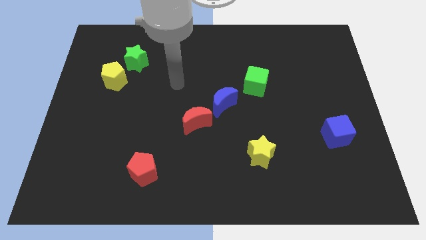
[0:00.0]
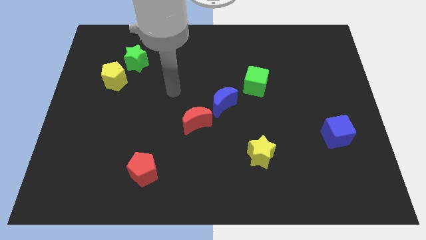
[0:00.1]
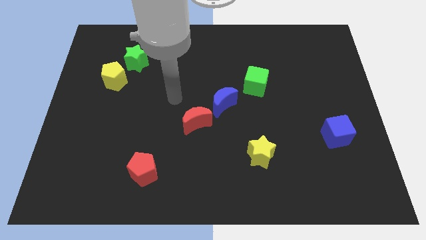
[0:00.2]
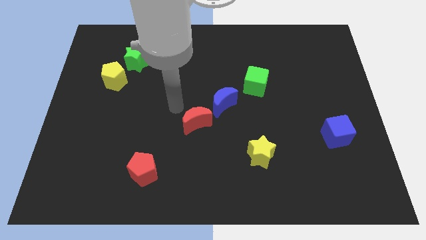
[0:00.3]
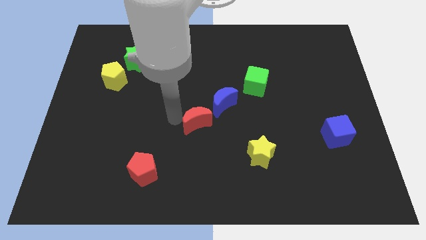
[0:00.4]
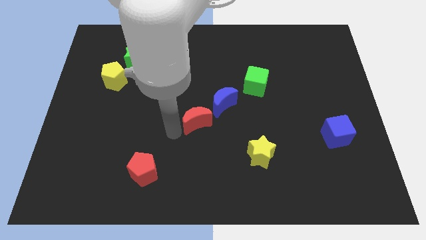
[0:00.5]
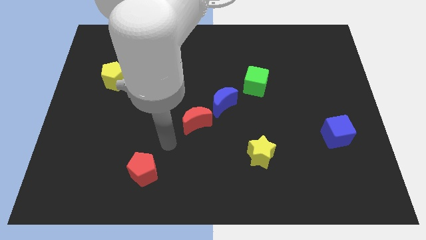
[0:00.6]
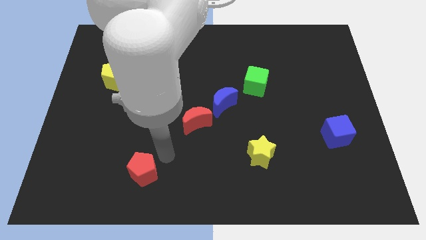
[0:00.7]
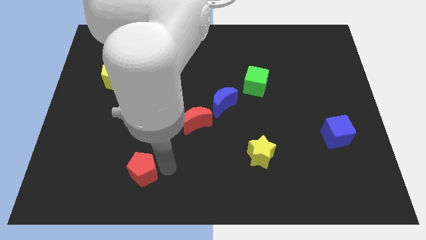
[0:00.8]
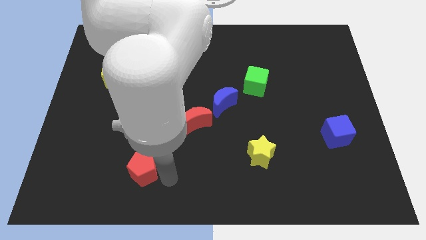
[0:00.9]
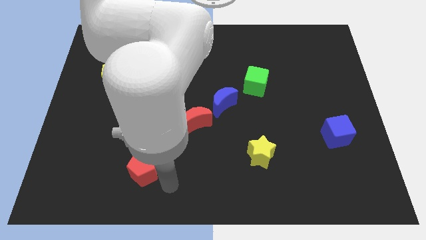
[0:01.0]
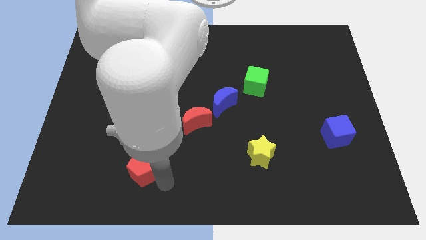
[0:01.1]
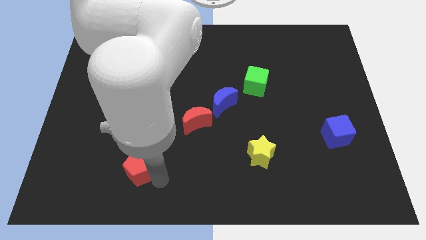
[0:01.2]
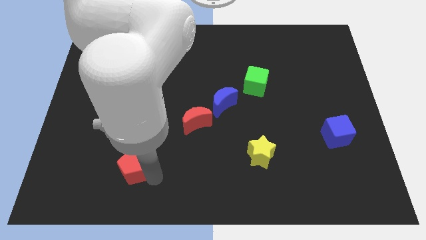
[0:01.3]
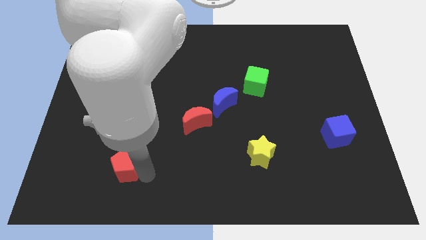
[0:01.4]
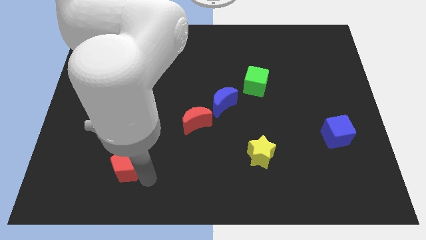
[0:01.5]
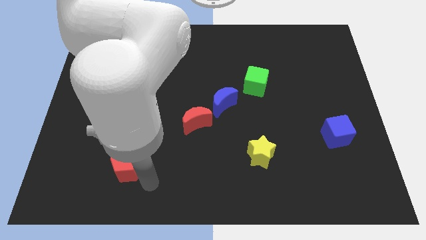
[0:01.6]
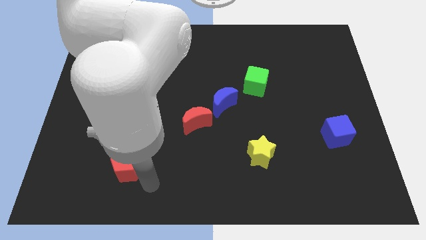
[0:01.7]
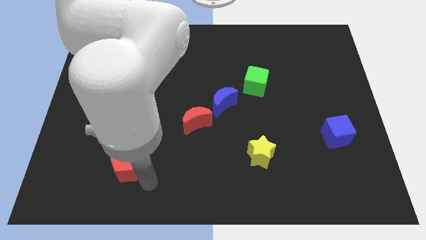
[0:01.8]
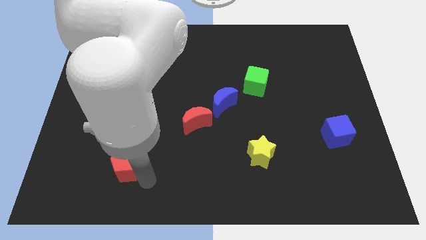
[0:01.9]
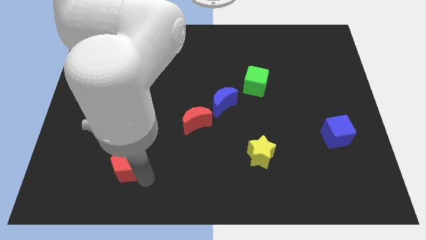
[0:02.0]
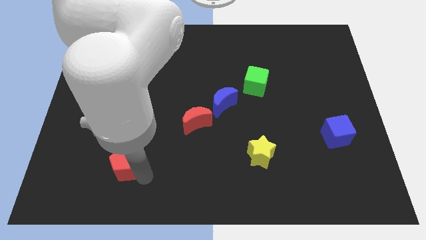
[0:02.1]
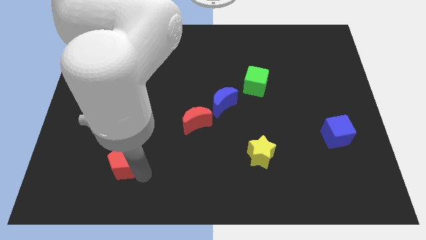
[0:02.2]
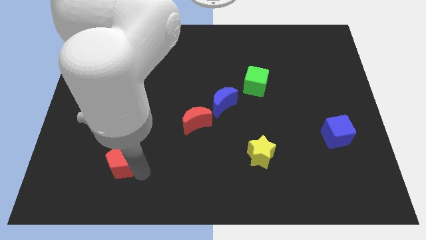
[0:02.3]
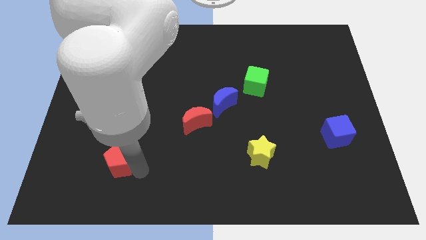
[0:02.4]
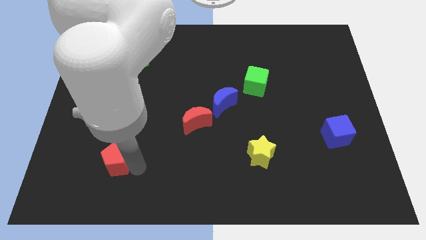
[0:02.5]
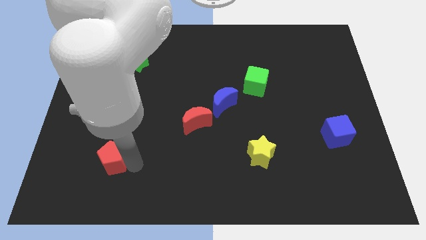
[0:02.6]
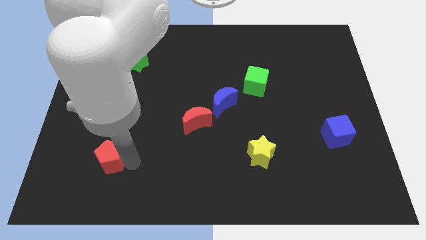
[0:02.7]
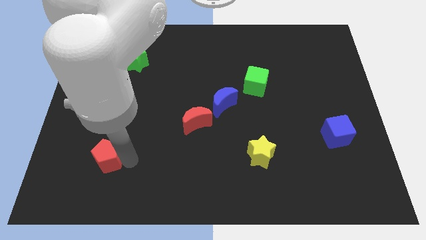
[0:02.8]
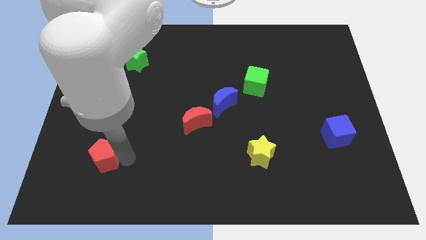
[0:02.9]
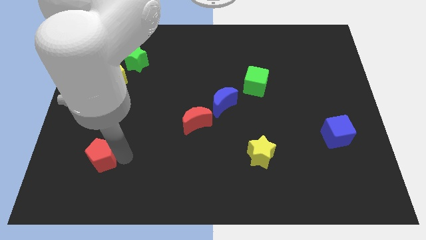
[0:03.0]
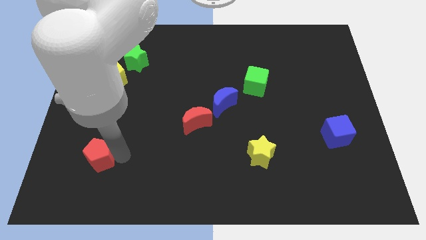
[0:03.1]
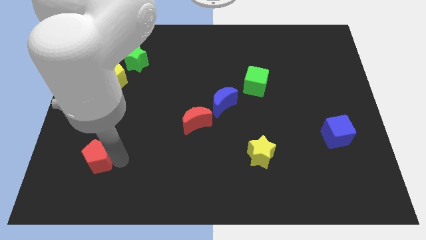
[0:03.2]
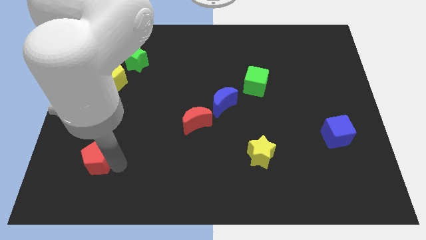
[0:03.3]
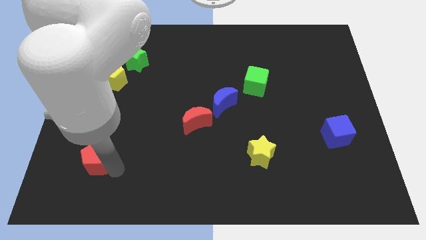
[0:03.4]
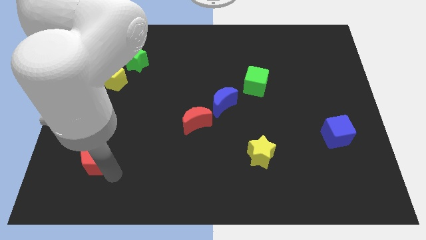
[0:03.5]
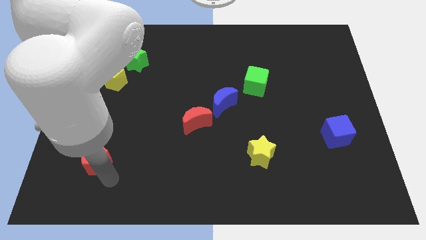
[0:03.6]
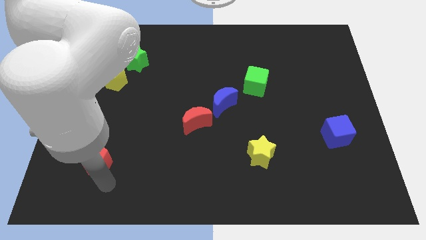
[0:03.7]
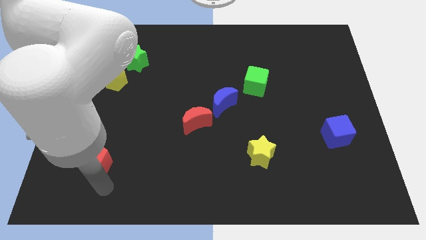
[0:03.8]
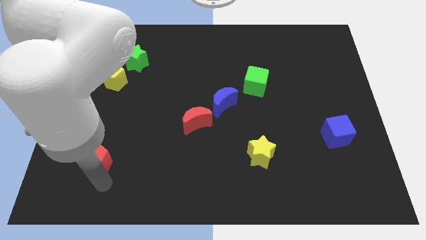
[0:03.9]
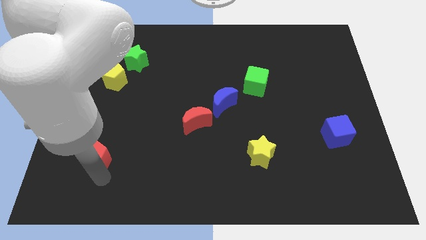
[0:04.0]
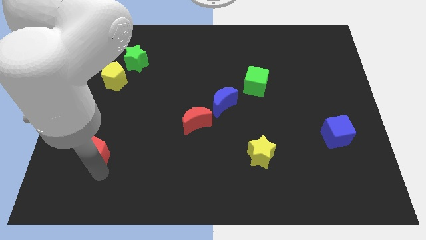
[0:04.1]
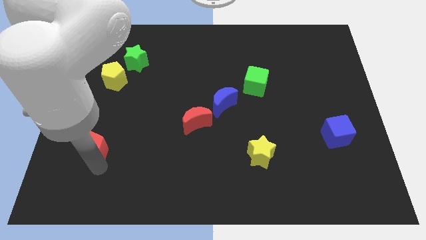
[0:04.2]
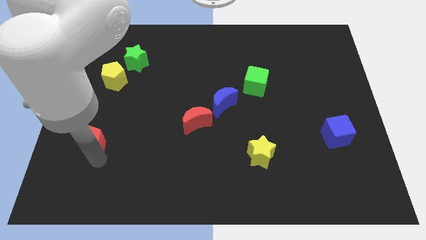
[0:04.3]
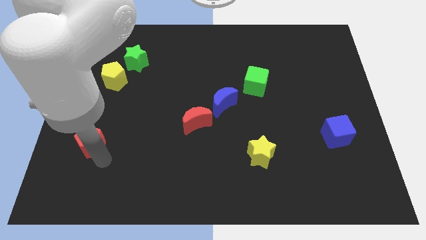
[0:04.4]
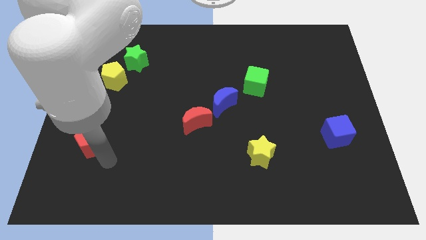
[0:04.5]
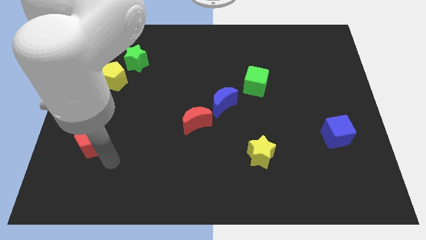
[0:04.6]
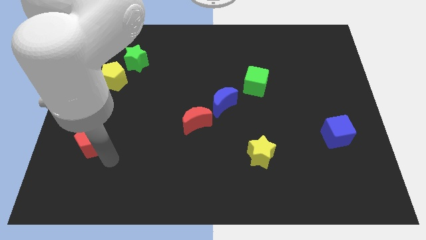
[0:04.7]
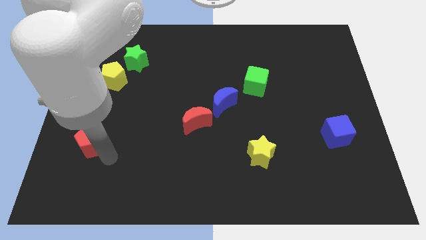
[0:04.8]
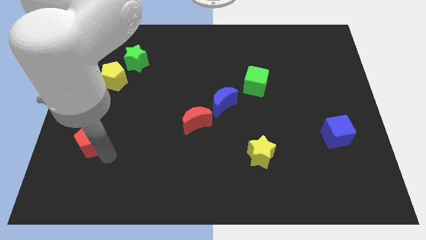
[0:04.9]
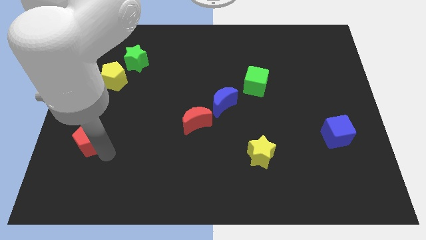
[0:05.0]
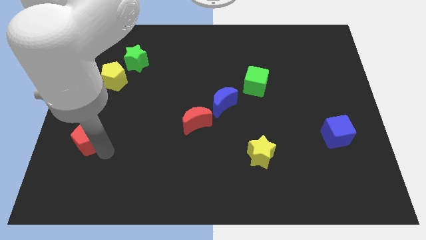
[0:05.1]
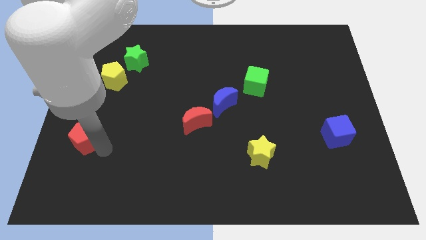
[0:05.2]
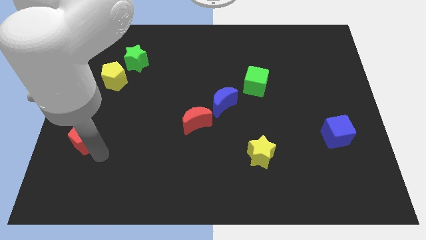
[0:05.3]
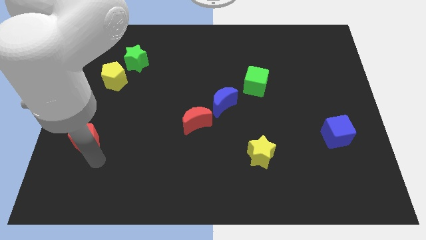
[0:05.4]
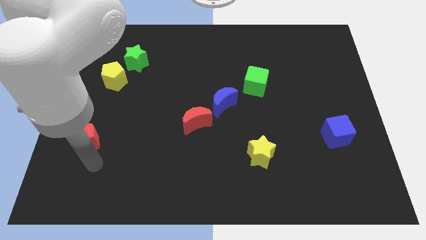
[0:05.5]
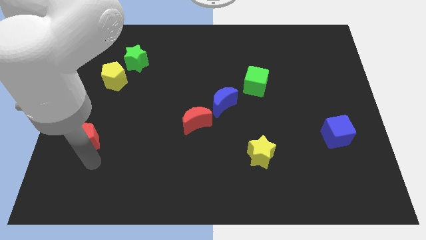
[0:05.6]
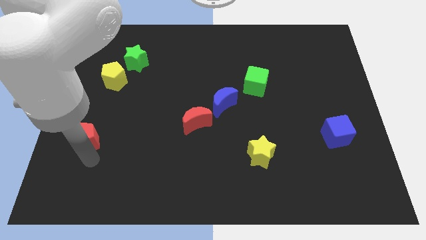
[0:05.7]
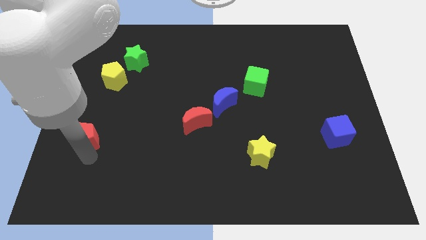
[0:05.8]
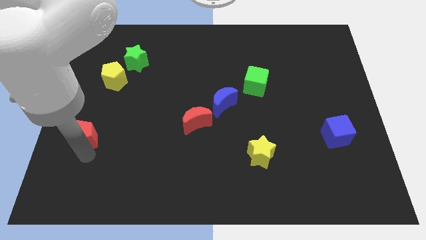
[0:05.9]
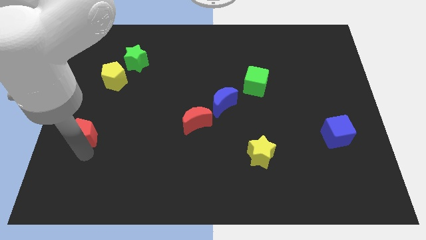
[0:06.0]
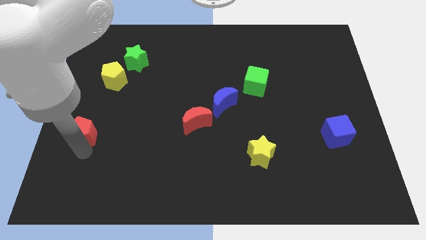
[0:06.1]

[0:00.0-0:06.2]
put the red pentagon to the left side of the board

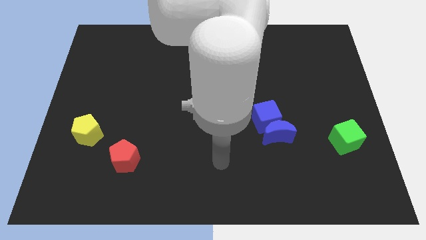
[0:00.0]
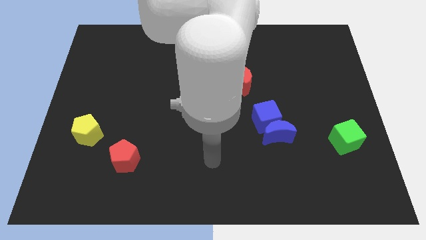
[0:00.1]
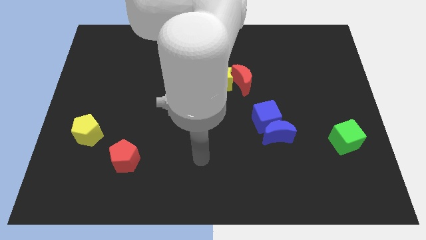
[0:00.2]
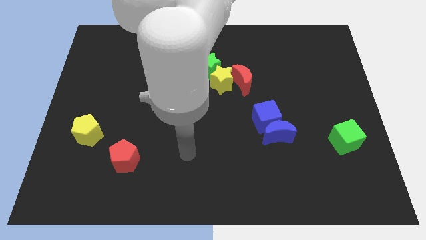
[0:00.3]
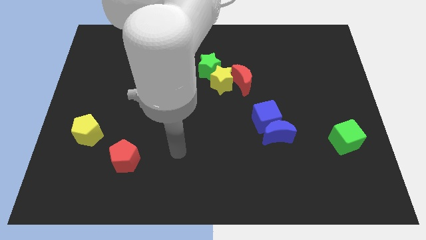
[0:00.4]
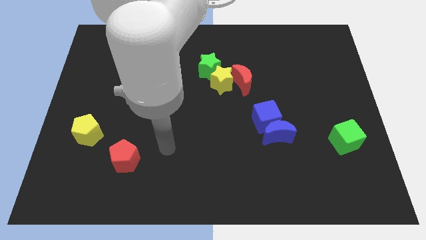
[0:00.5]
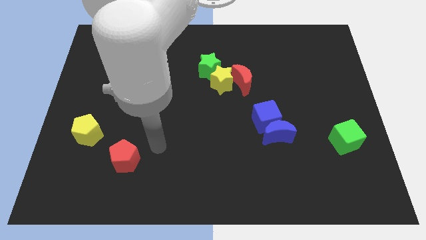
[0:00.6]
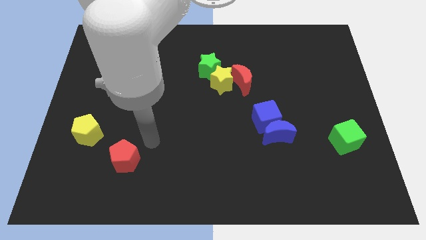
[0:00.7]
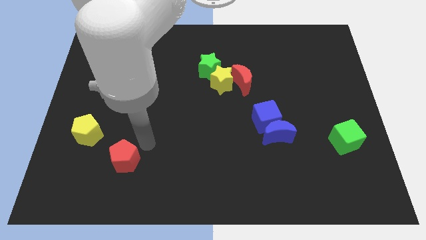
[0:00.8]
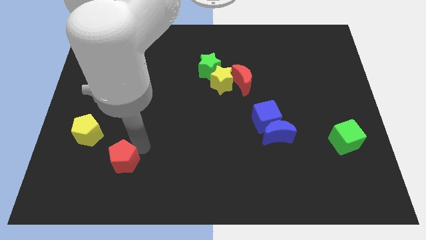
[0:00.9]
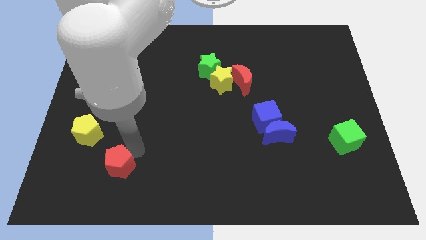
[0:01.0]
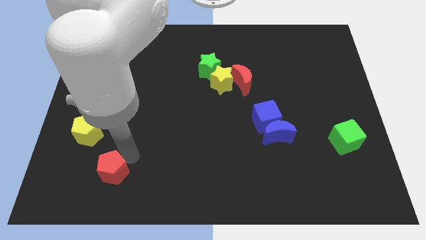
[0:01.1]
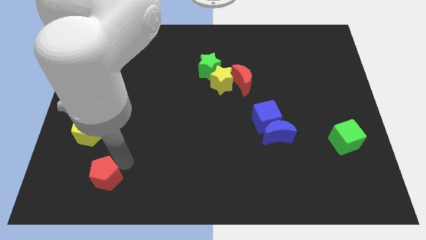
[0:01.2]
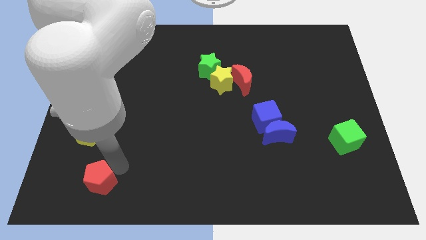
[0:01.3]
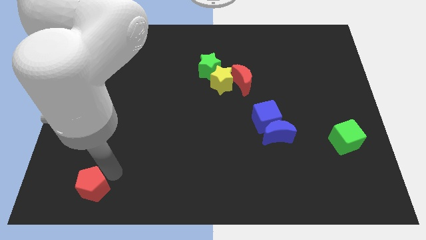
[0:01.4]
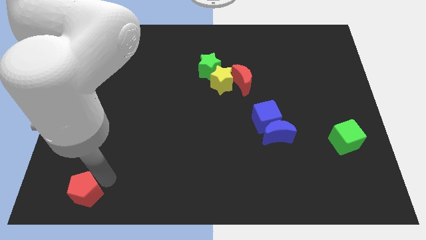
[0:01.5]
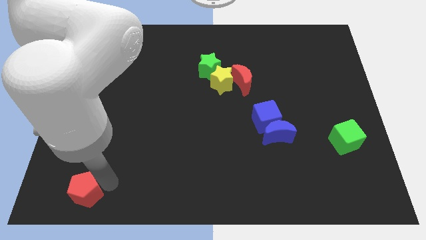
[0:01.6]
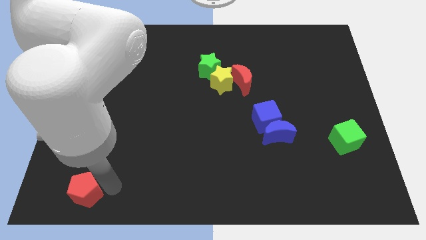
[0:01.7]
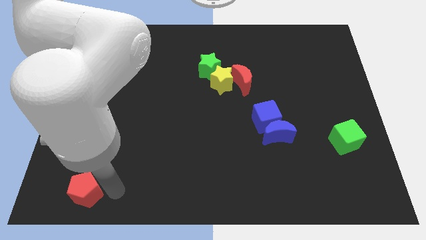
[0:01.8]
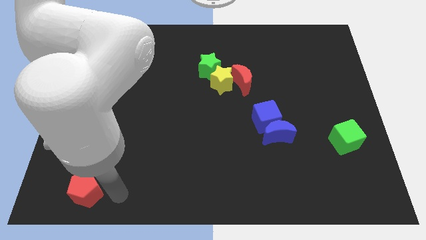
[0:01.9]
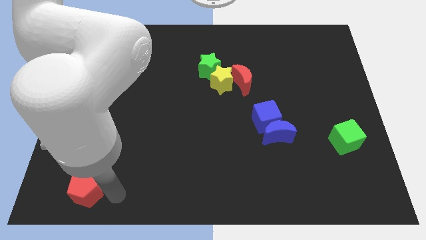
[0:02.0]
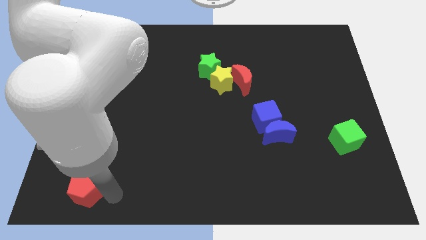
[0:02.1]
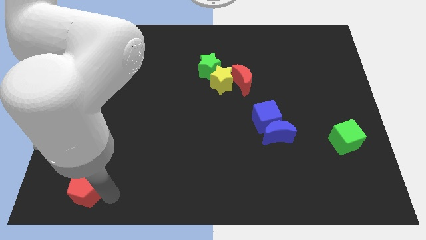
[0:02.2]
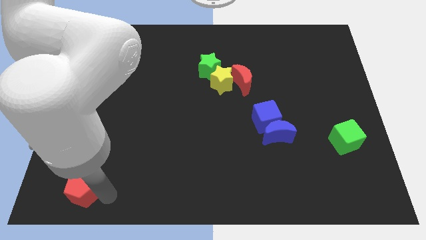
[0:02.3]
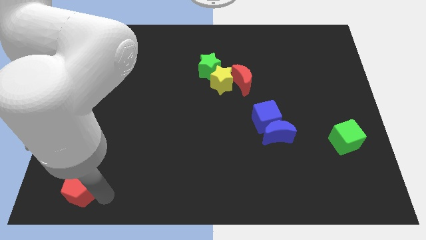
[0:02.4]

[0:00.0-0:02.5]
slide the red pentagon to the bottom left corner
